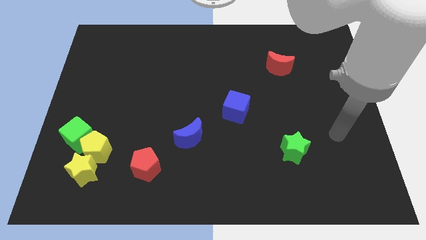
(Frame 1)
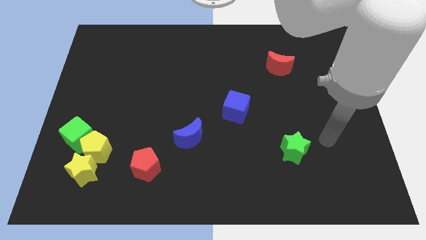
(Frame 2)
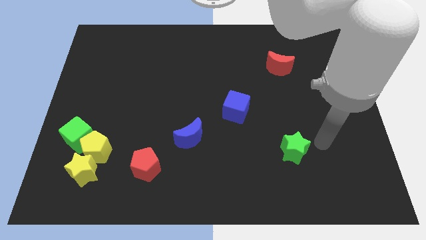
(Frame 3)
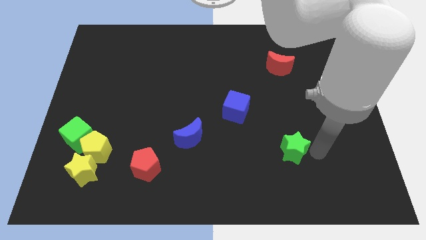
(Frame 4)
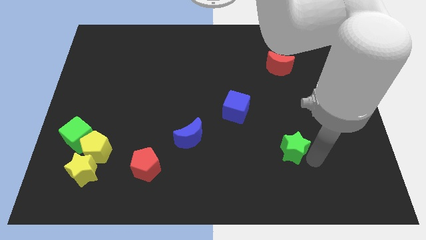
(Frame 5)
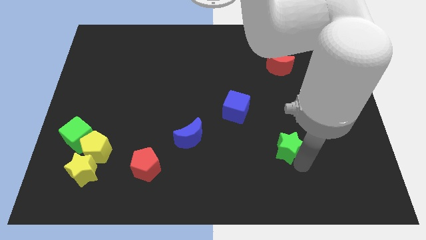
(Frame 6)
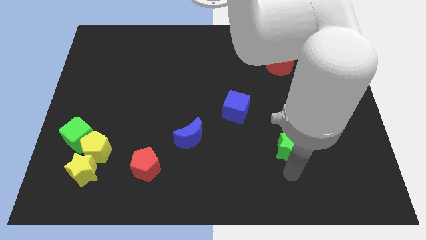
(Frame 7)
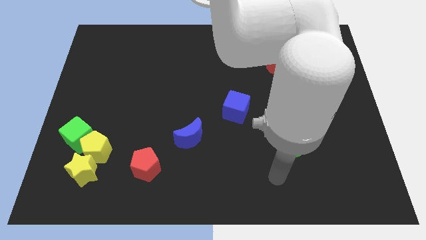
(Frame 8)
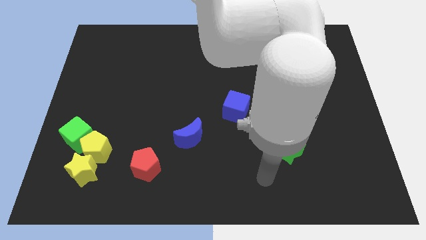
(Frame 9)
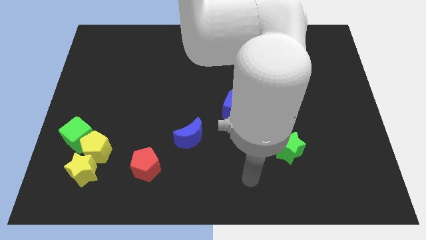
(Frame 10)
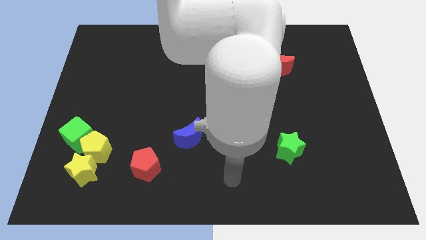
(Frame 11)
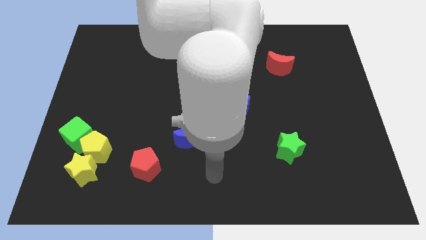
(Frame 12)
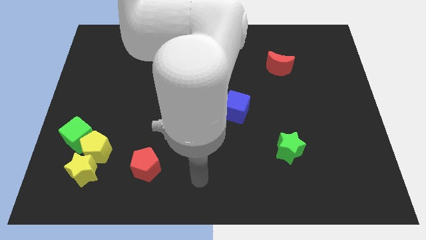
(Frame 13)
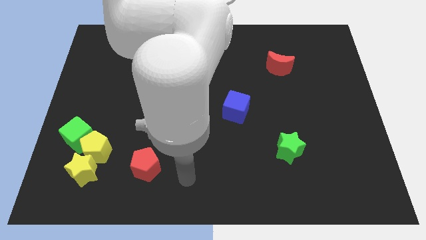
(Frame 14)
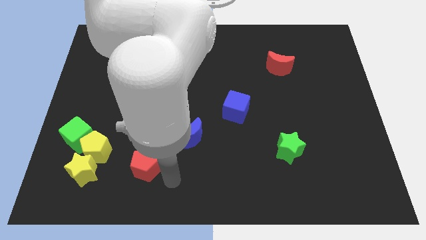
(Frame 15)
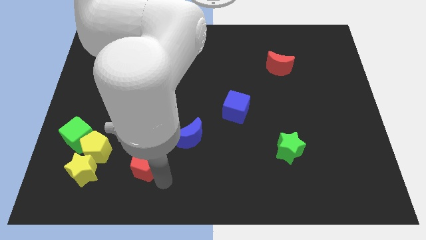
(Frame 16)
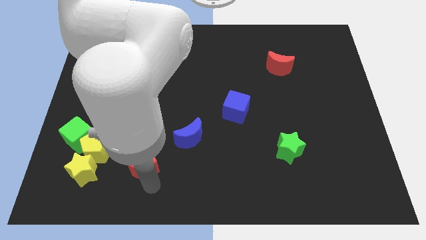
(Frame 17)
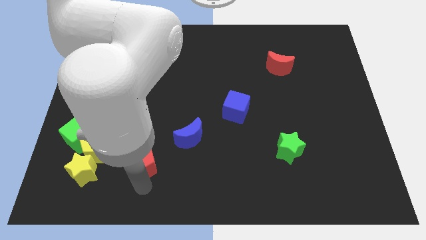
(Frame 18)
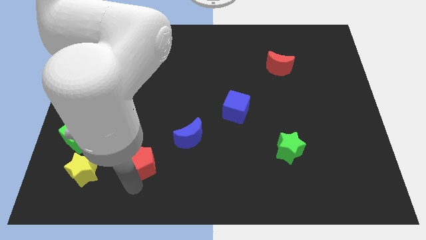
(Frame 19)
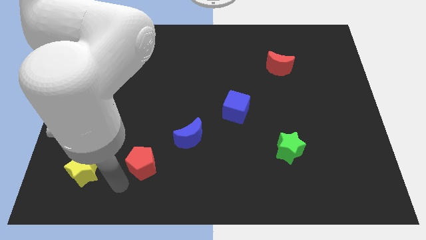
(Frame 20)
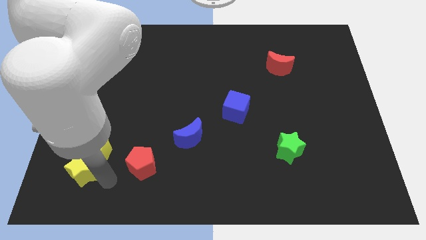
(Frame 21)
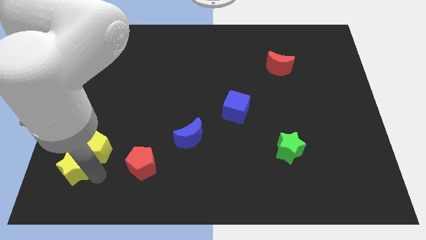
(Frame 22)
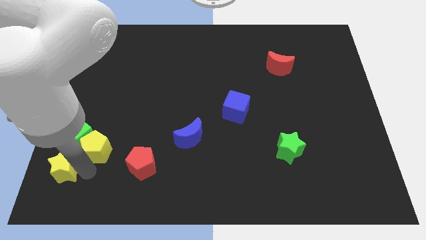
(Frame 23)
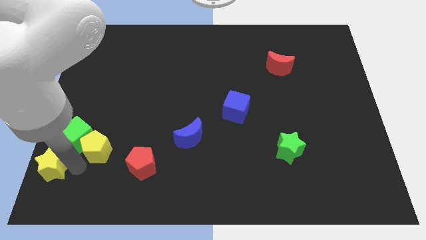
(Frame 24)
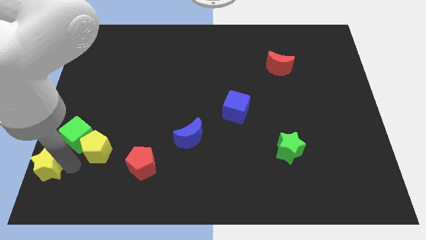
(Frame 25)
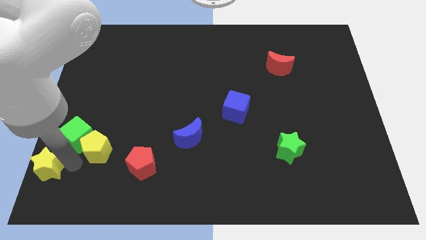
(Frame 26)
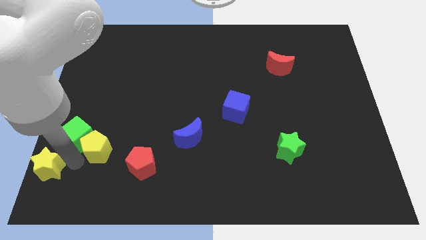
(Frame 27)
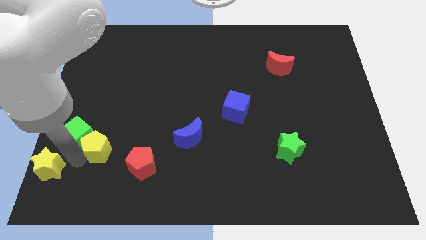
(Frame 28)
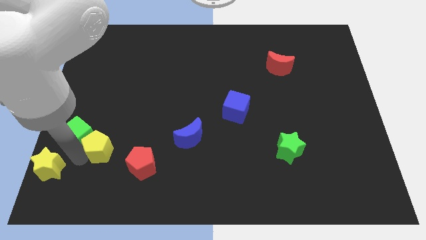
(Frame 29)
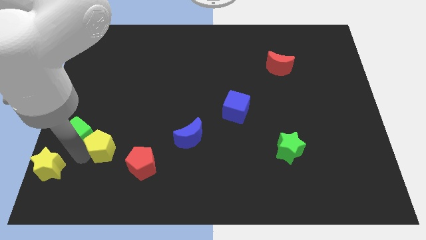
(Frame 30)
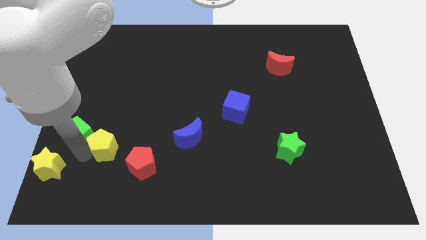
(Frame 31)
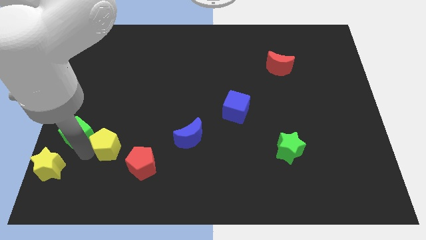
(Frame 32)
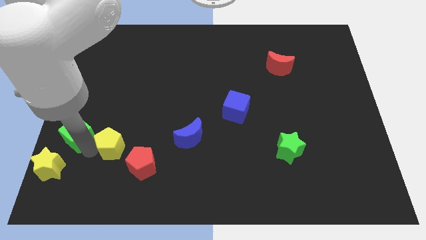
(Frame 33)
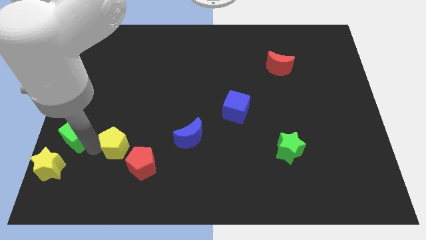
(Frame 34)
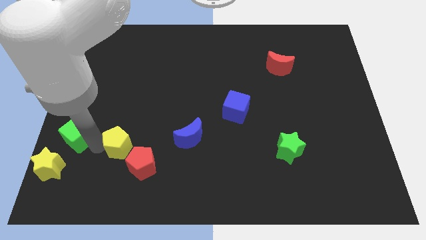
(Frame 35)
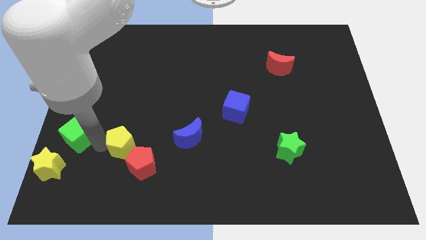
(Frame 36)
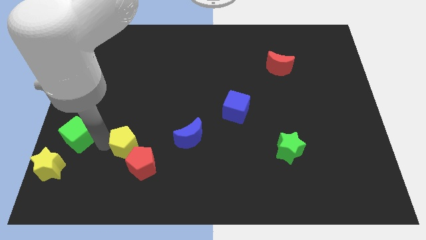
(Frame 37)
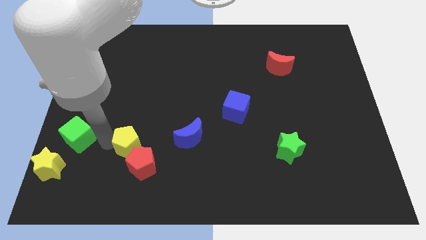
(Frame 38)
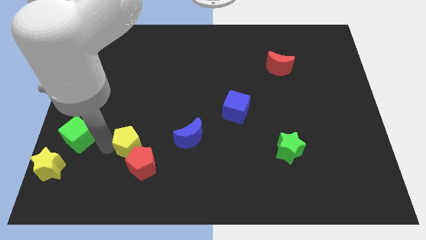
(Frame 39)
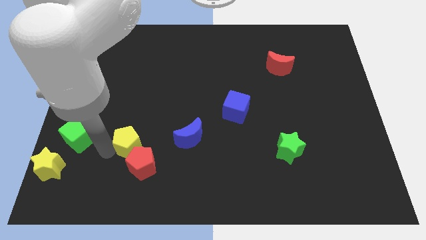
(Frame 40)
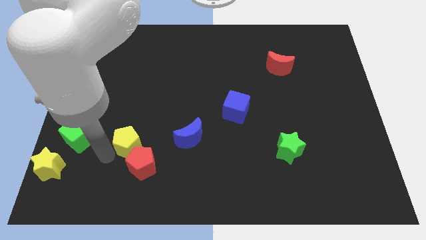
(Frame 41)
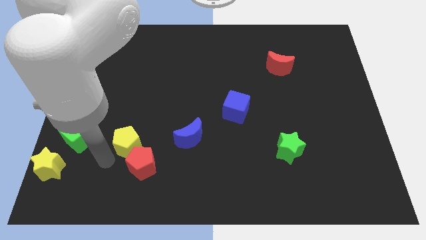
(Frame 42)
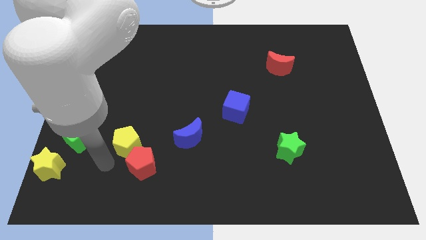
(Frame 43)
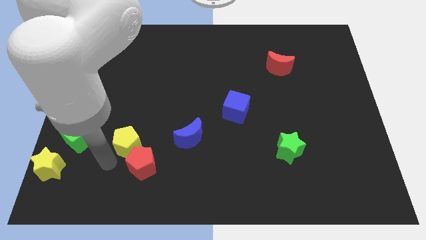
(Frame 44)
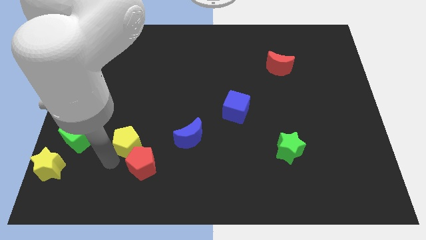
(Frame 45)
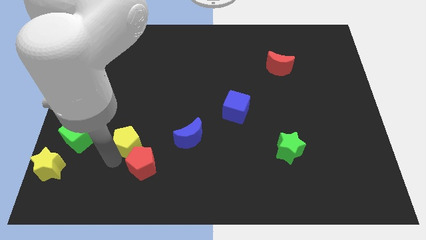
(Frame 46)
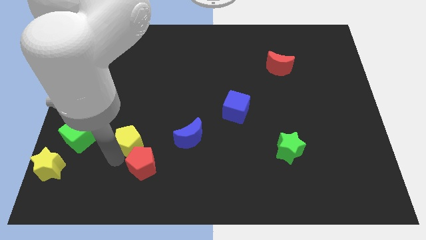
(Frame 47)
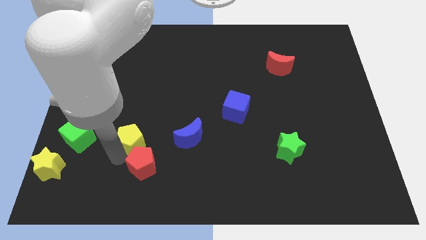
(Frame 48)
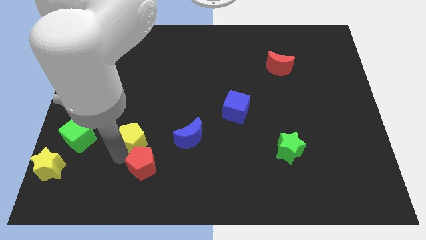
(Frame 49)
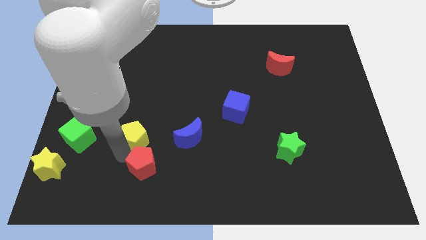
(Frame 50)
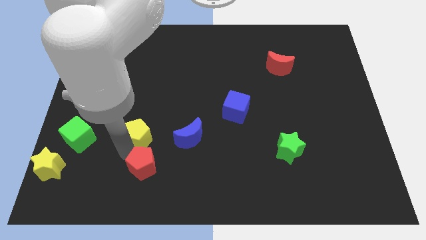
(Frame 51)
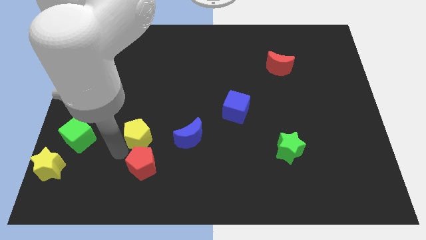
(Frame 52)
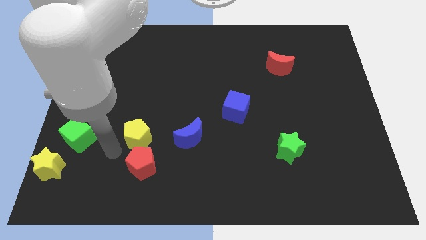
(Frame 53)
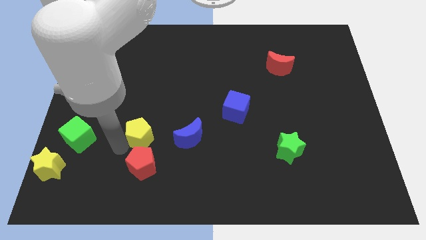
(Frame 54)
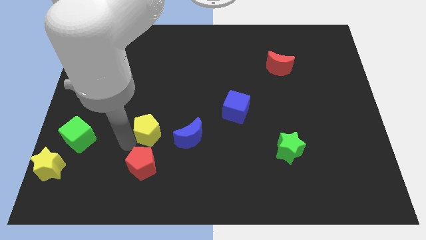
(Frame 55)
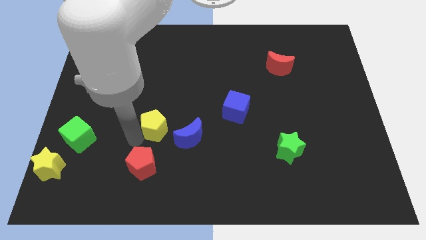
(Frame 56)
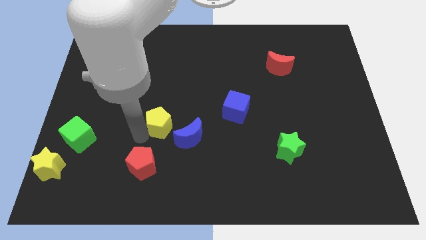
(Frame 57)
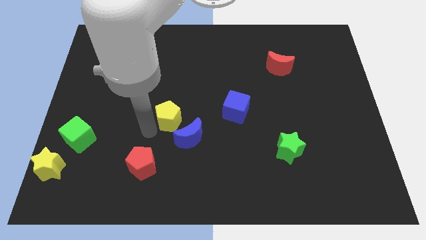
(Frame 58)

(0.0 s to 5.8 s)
move the yellow pentagon to the middle
